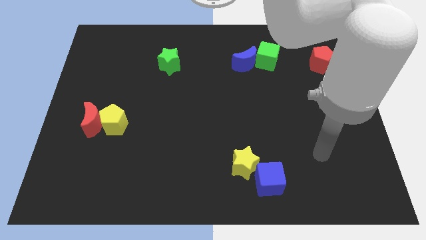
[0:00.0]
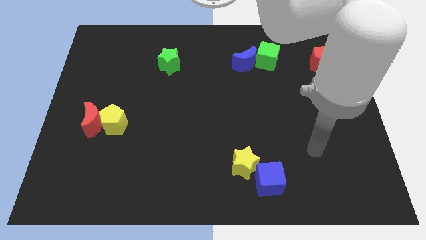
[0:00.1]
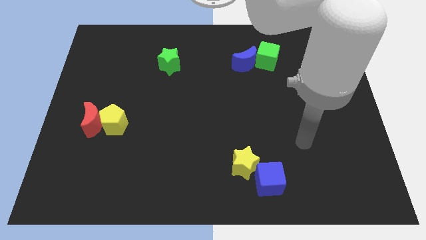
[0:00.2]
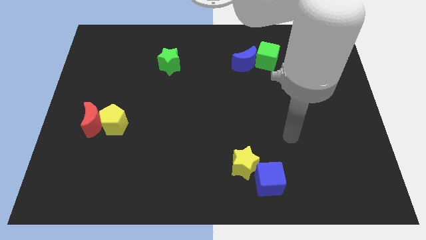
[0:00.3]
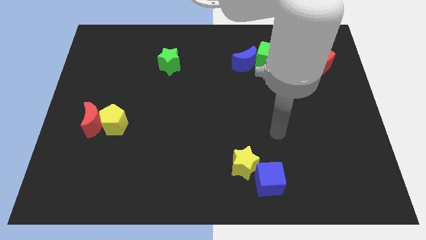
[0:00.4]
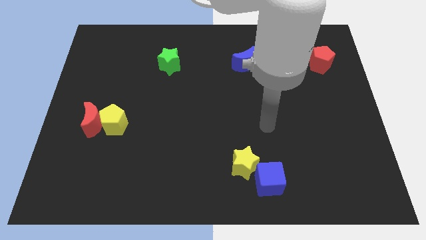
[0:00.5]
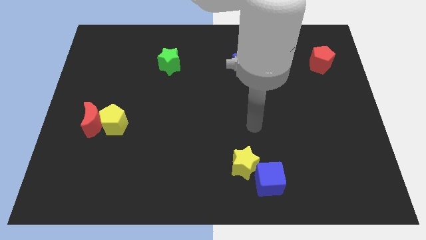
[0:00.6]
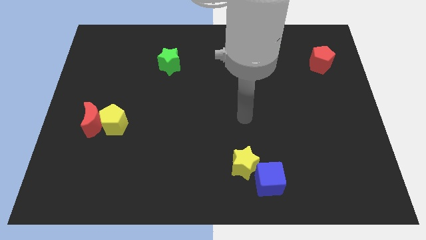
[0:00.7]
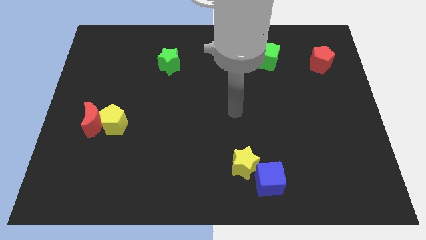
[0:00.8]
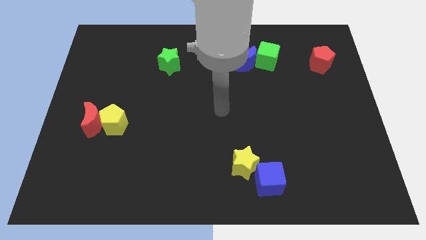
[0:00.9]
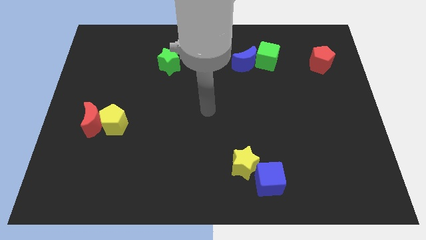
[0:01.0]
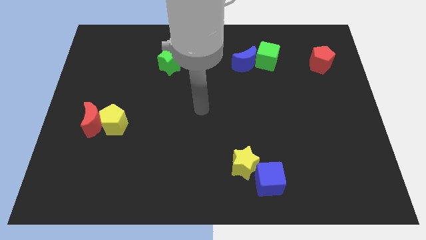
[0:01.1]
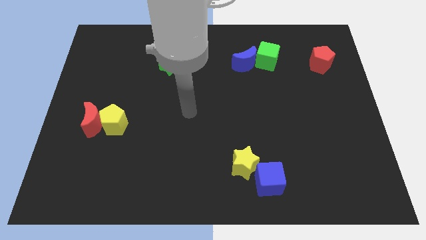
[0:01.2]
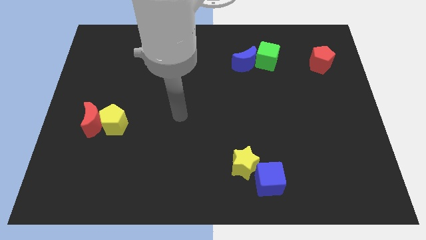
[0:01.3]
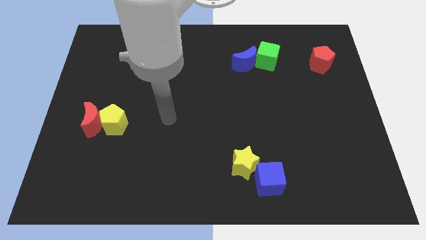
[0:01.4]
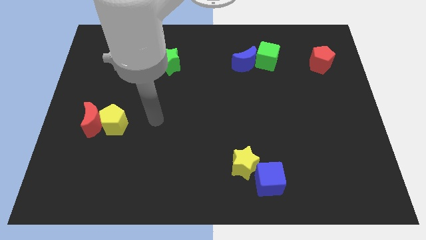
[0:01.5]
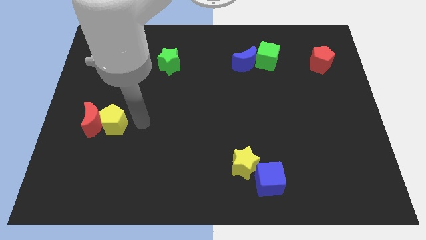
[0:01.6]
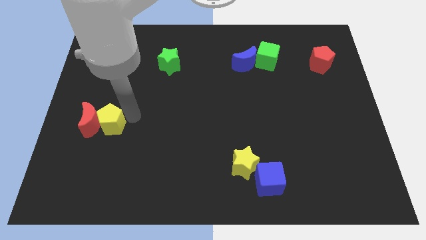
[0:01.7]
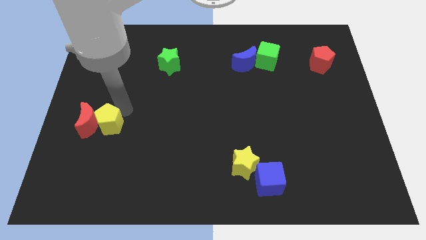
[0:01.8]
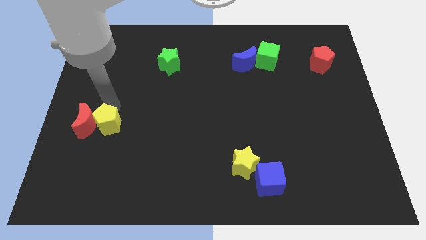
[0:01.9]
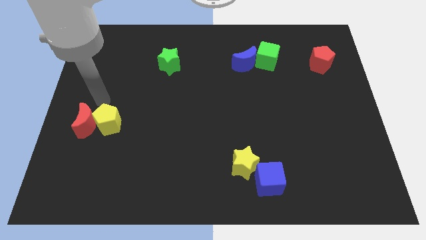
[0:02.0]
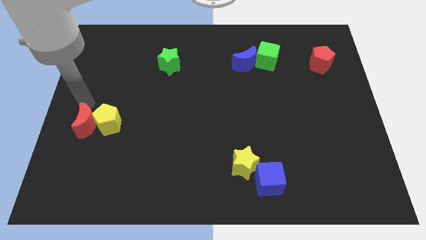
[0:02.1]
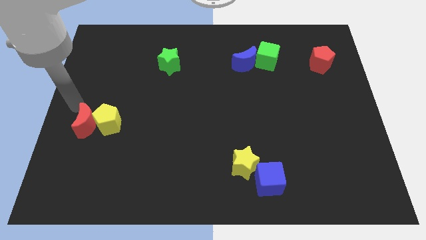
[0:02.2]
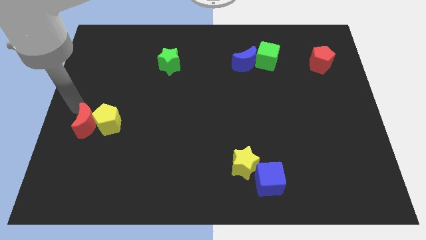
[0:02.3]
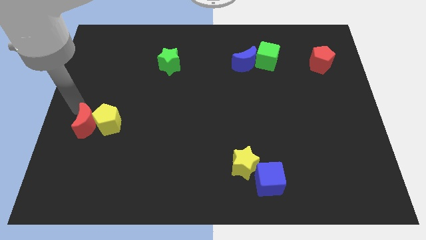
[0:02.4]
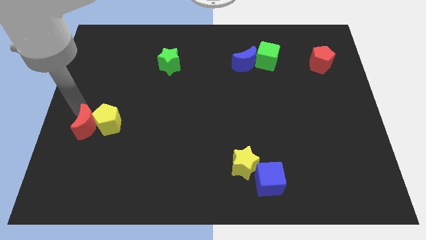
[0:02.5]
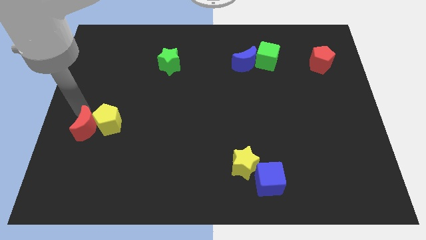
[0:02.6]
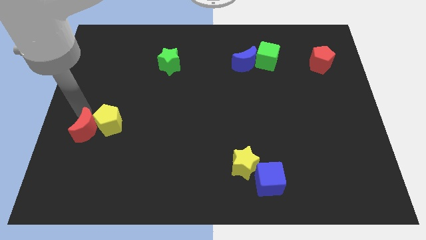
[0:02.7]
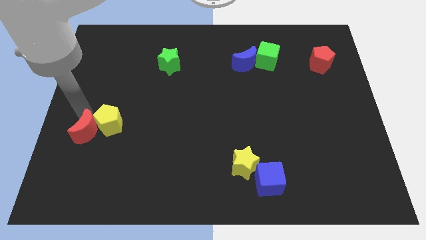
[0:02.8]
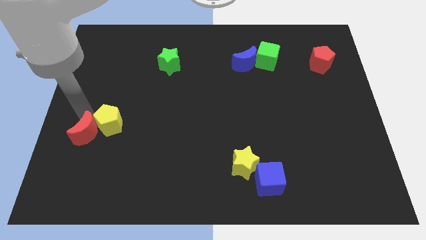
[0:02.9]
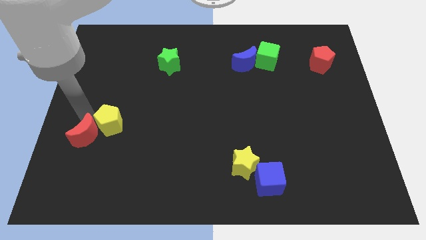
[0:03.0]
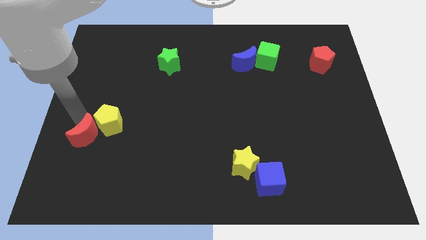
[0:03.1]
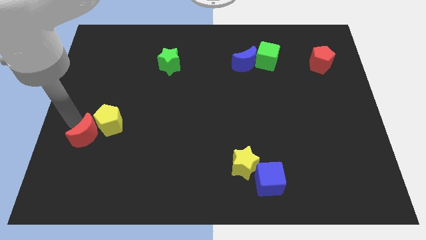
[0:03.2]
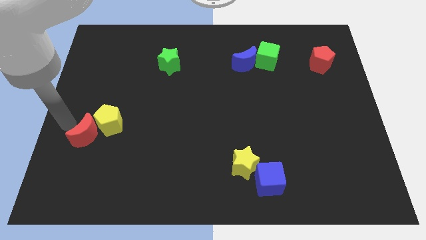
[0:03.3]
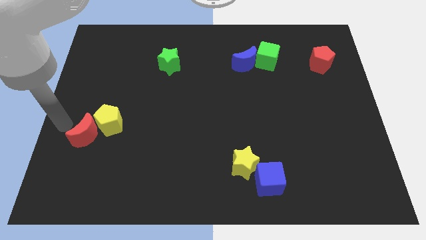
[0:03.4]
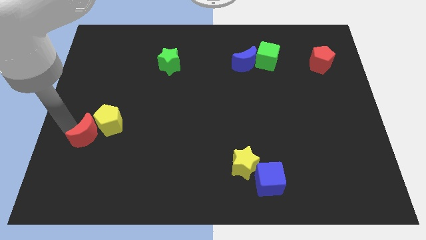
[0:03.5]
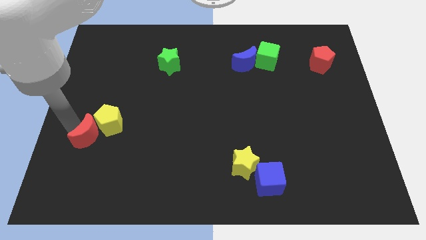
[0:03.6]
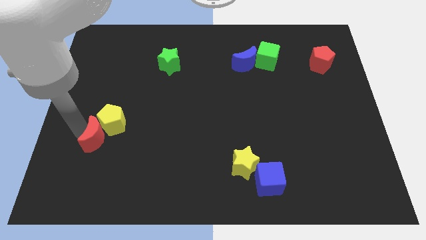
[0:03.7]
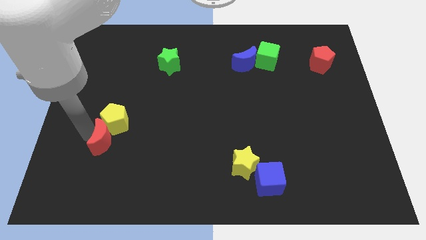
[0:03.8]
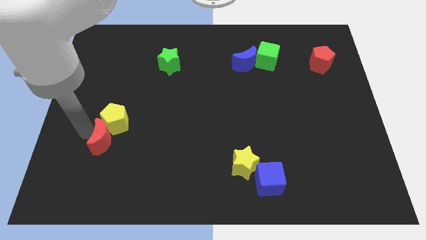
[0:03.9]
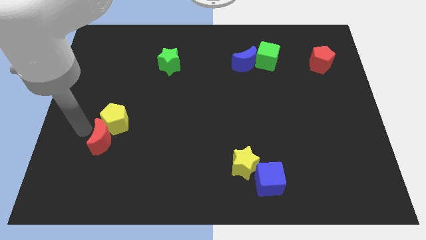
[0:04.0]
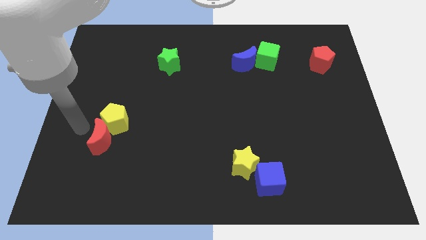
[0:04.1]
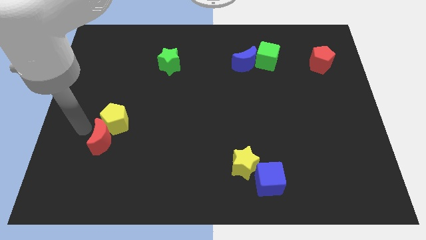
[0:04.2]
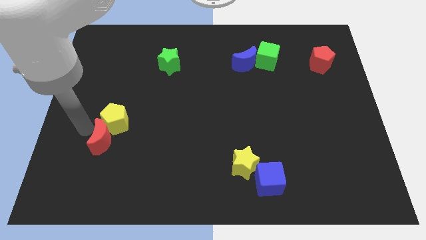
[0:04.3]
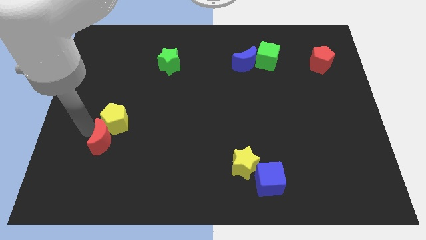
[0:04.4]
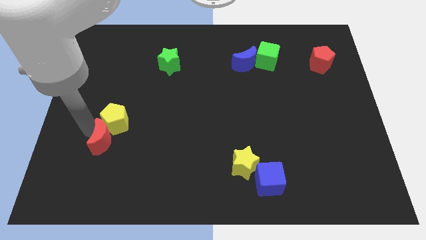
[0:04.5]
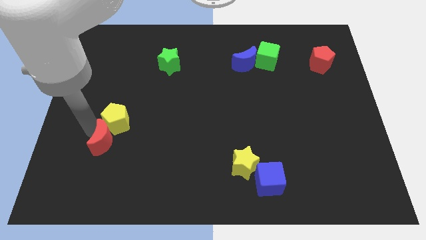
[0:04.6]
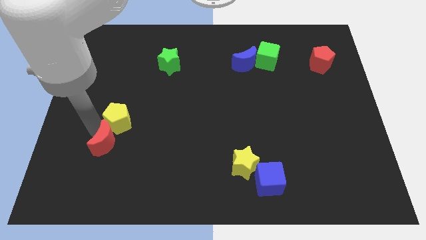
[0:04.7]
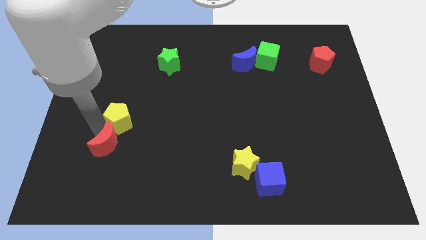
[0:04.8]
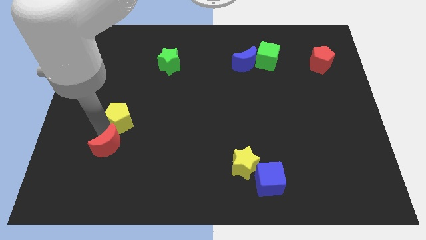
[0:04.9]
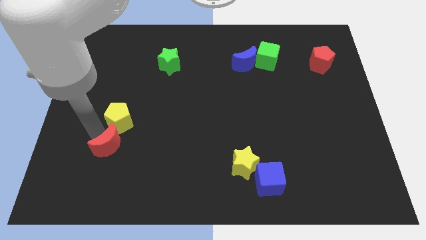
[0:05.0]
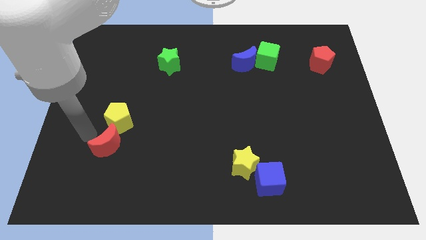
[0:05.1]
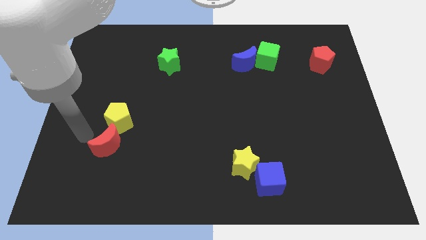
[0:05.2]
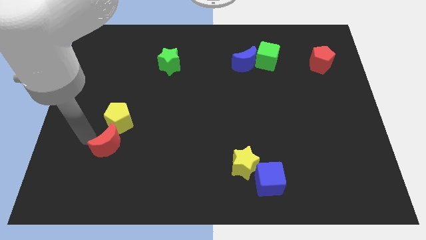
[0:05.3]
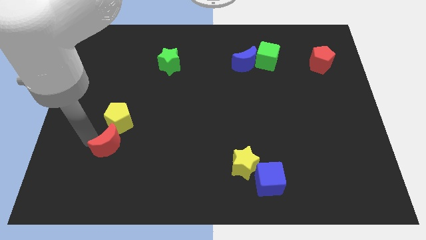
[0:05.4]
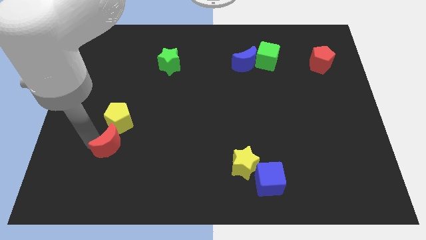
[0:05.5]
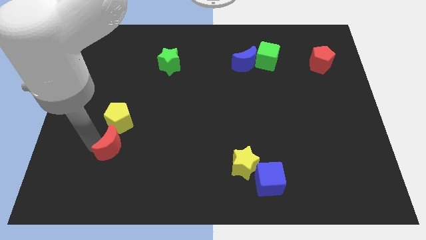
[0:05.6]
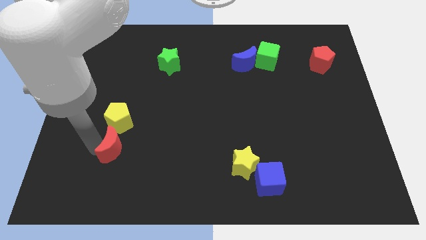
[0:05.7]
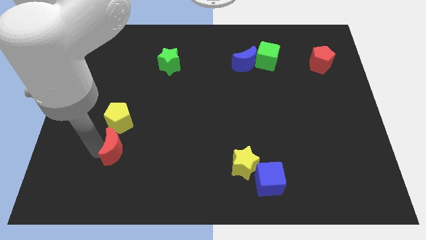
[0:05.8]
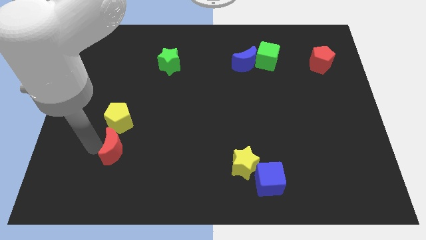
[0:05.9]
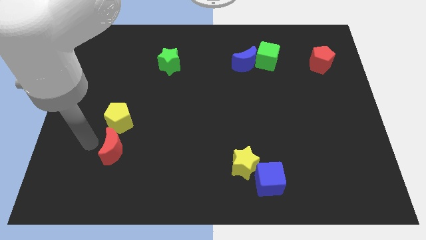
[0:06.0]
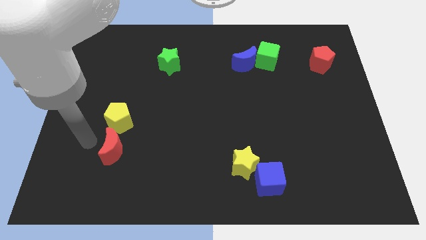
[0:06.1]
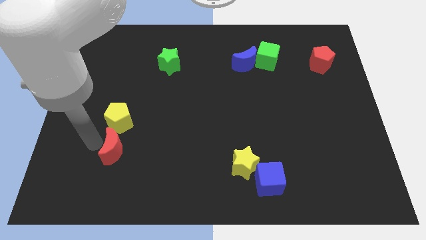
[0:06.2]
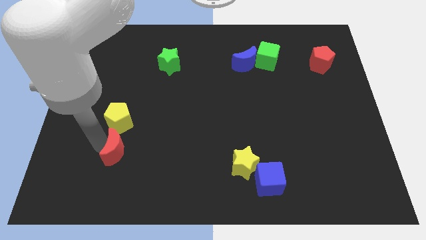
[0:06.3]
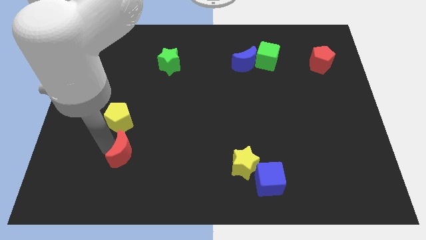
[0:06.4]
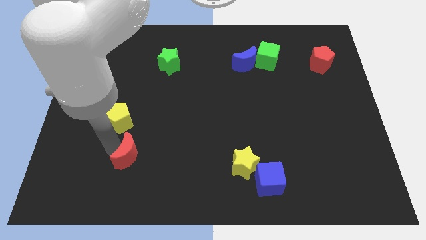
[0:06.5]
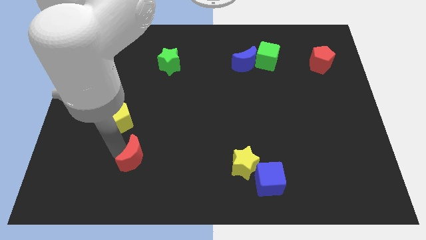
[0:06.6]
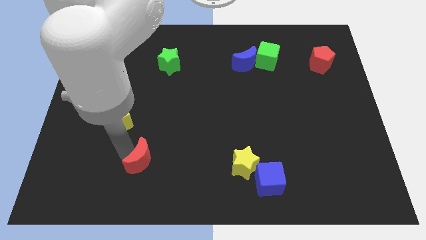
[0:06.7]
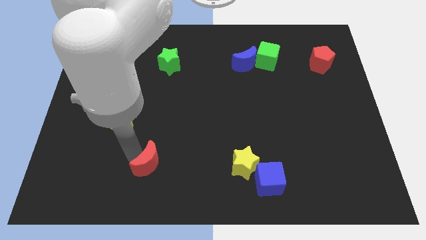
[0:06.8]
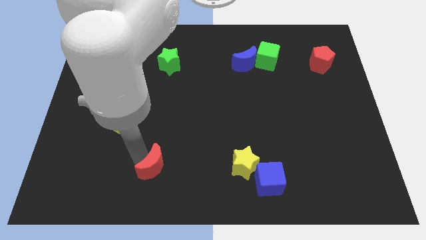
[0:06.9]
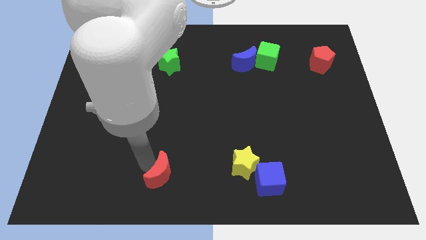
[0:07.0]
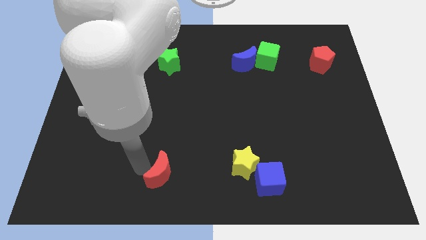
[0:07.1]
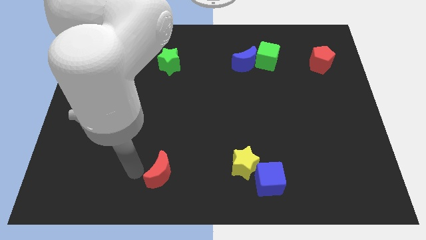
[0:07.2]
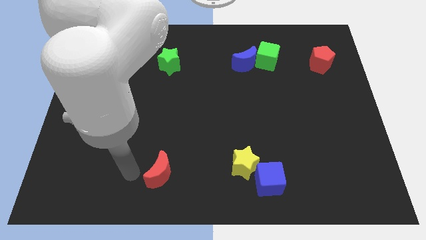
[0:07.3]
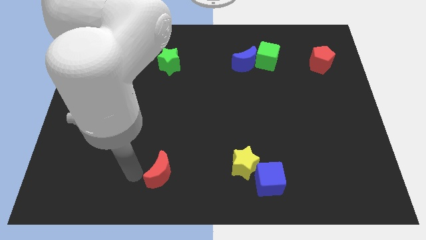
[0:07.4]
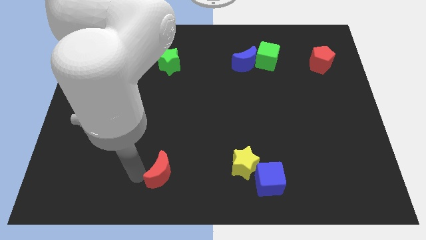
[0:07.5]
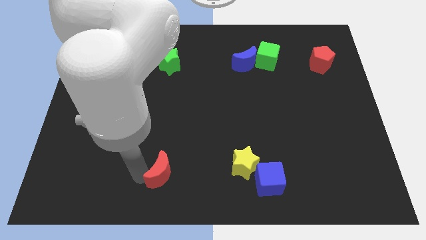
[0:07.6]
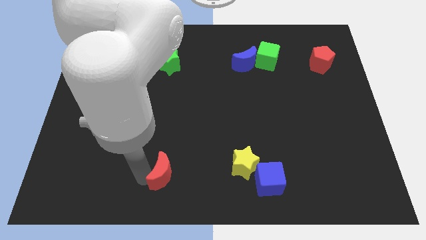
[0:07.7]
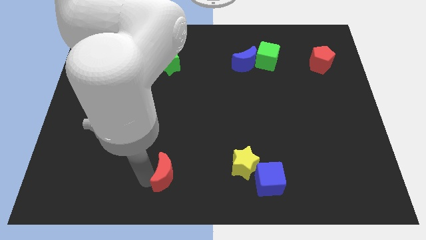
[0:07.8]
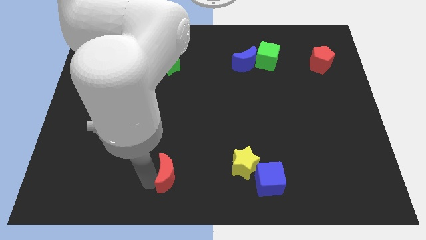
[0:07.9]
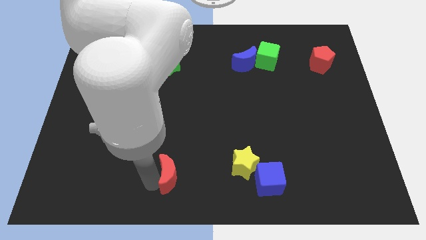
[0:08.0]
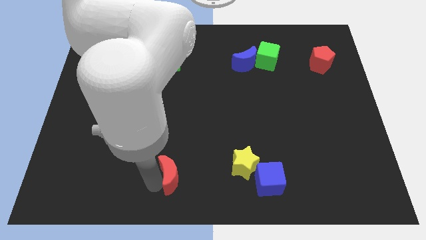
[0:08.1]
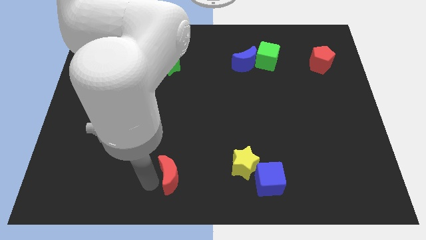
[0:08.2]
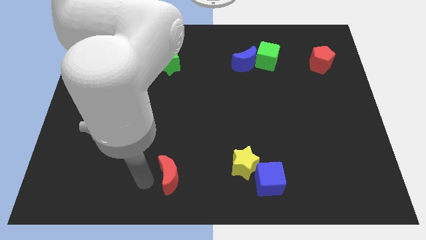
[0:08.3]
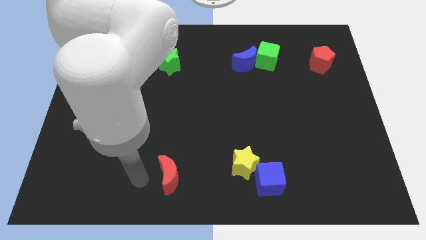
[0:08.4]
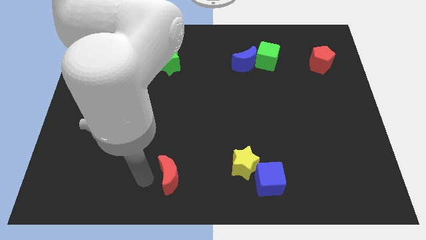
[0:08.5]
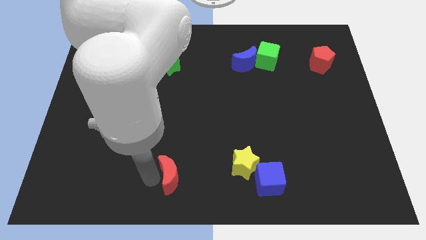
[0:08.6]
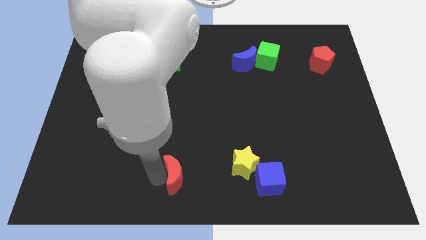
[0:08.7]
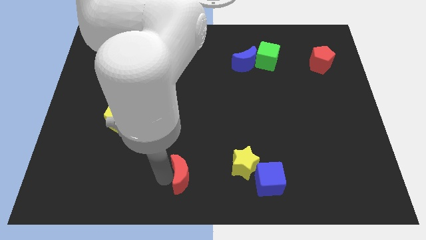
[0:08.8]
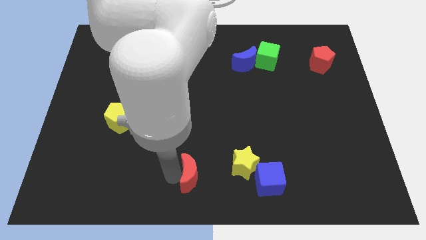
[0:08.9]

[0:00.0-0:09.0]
push the red moon to the left side of the blue cube
